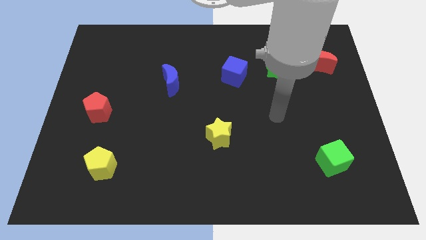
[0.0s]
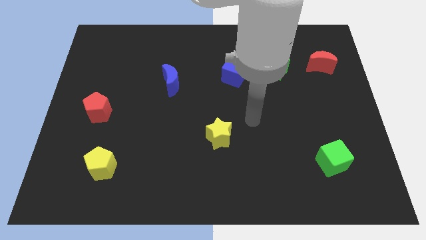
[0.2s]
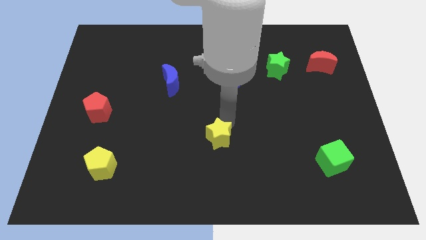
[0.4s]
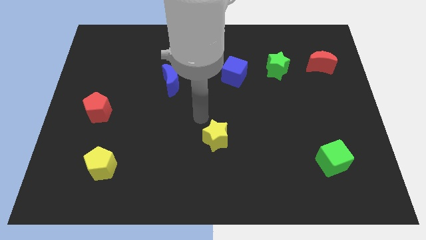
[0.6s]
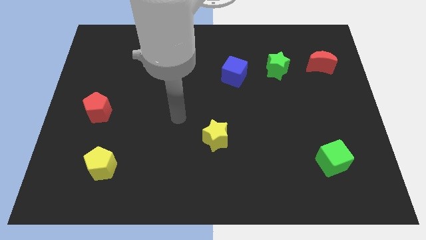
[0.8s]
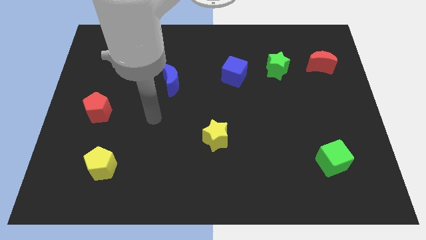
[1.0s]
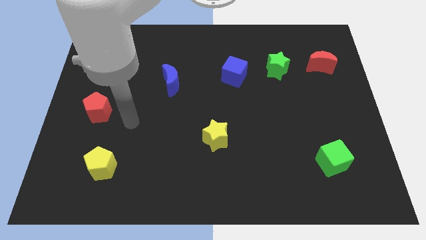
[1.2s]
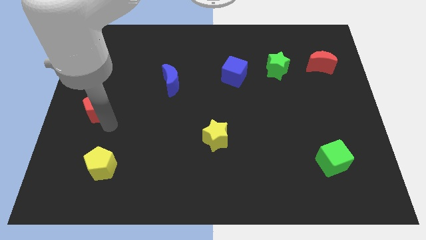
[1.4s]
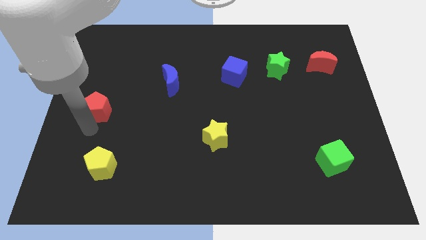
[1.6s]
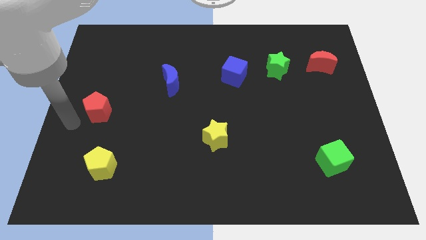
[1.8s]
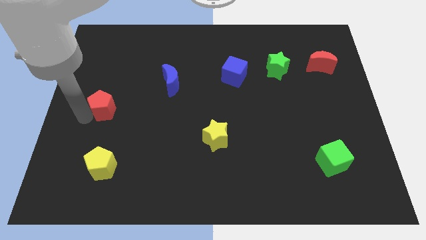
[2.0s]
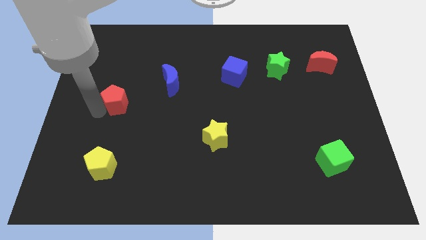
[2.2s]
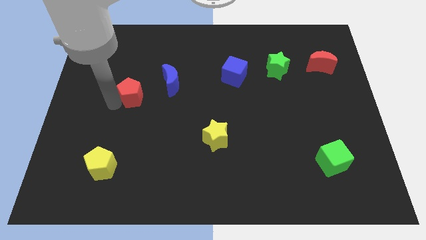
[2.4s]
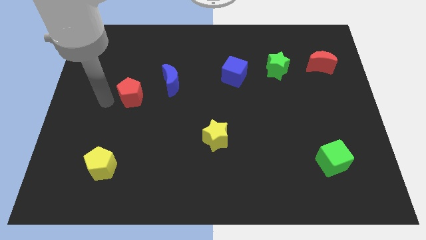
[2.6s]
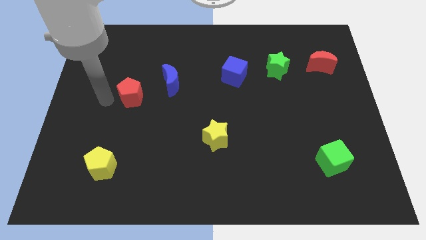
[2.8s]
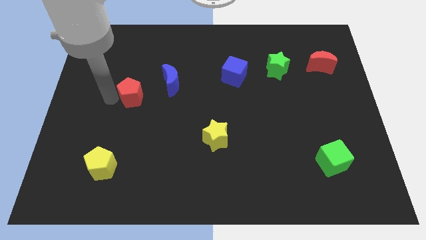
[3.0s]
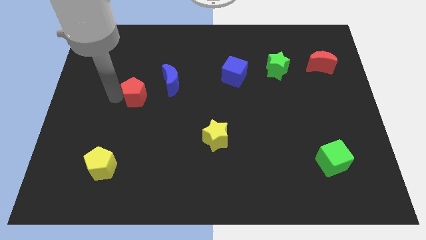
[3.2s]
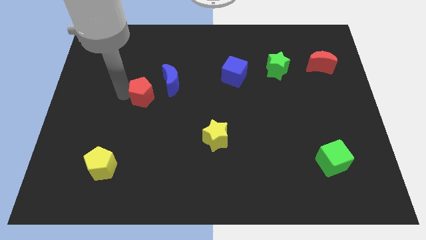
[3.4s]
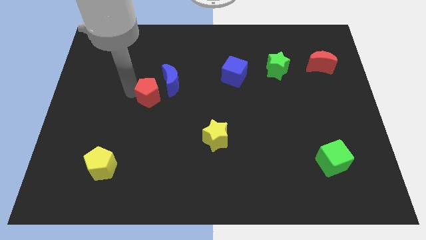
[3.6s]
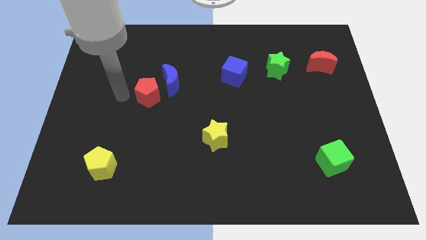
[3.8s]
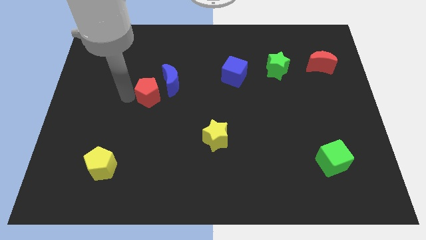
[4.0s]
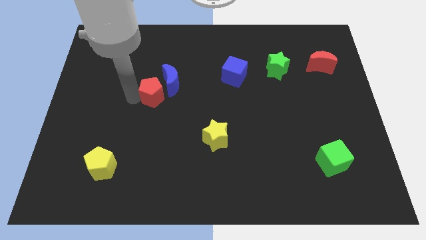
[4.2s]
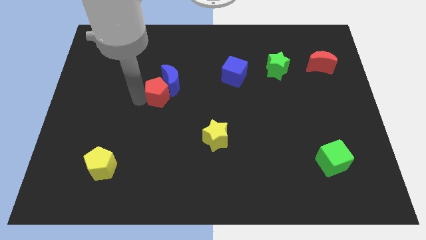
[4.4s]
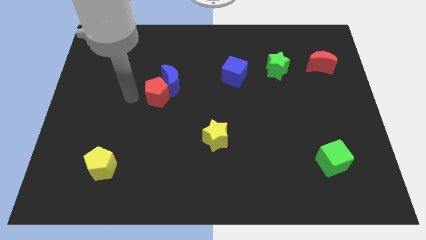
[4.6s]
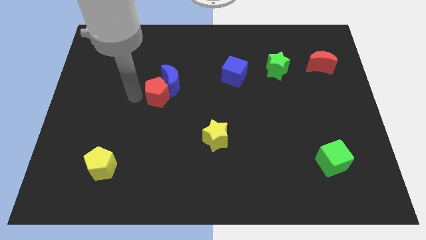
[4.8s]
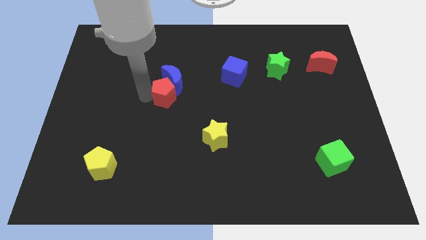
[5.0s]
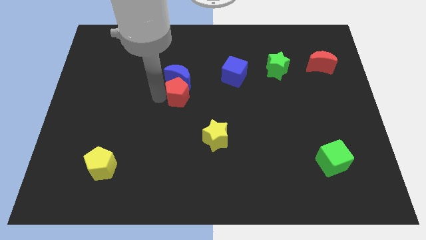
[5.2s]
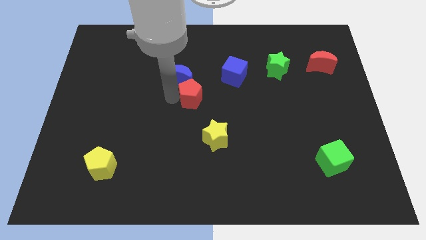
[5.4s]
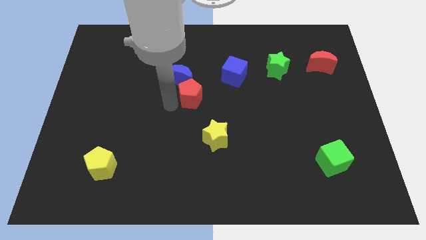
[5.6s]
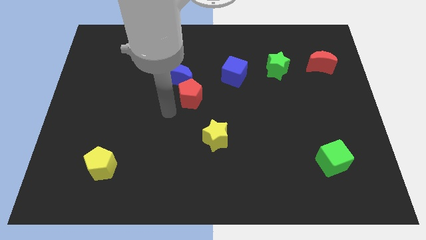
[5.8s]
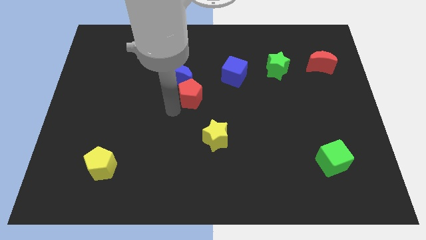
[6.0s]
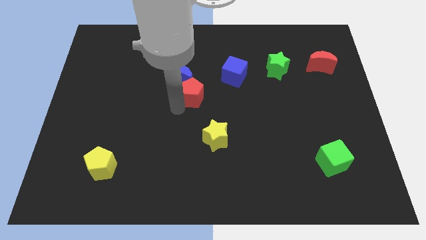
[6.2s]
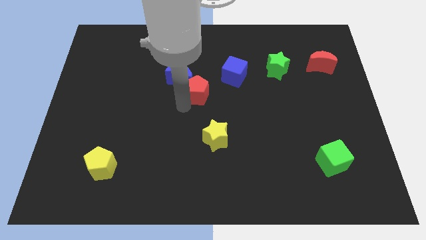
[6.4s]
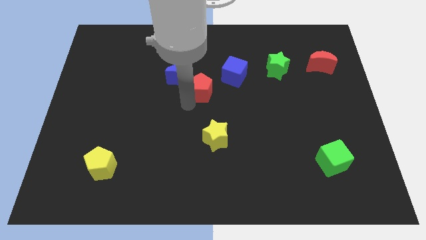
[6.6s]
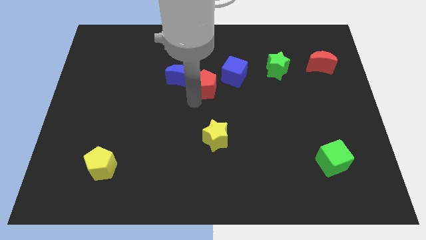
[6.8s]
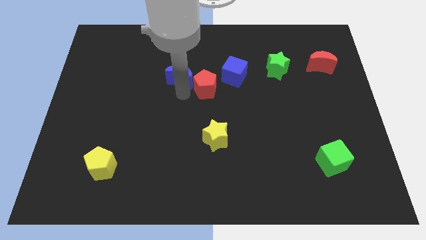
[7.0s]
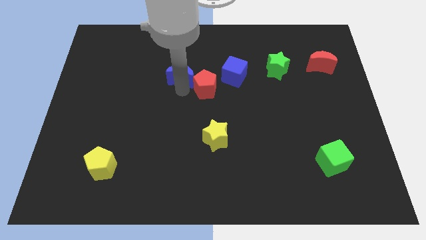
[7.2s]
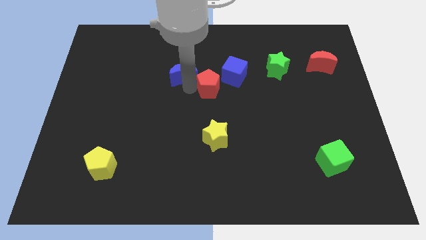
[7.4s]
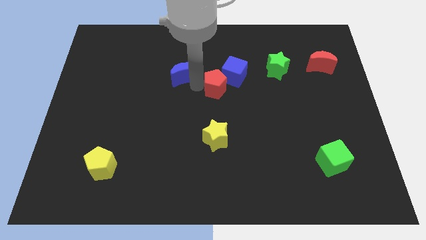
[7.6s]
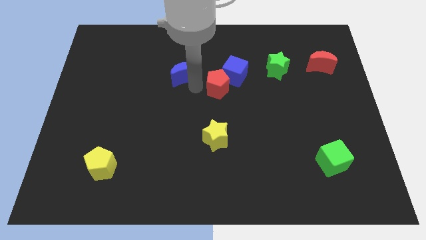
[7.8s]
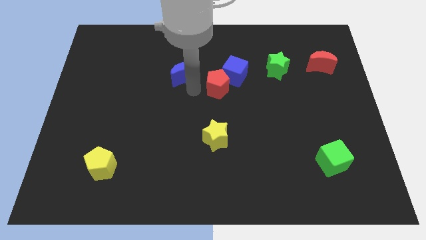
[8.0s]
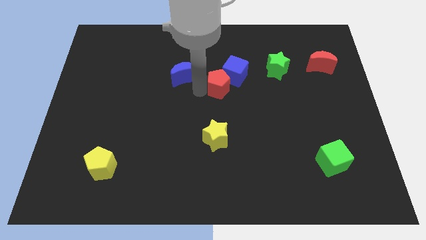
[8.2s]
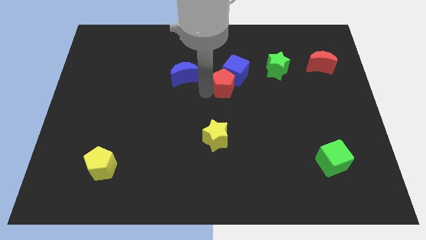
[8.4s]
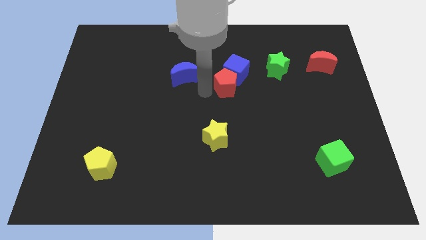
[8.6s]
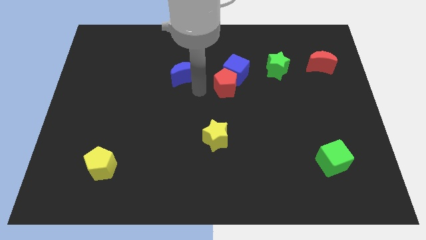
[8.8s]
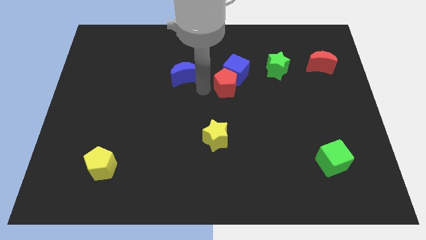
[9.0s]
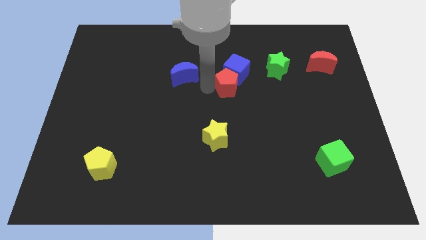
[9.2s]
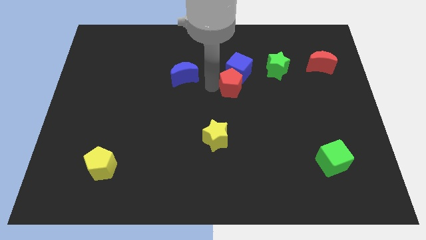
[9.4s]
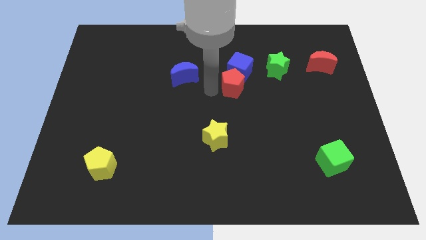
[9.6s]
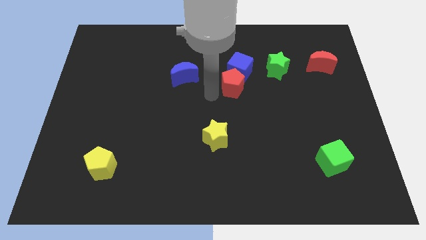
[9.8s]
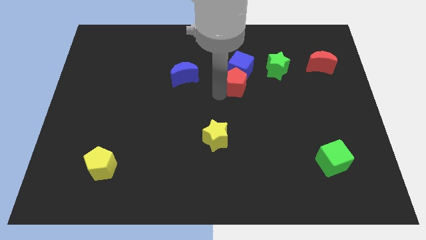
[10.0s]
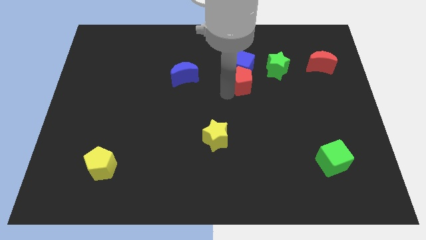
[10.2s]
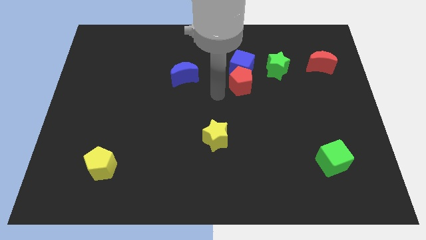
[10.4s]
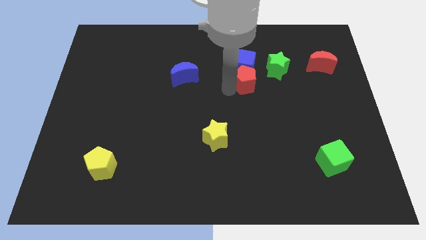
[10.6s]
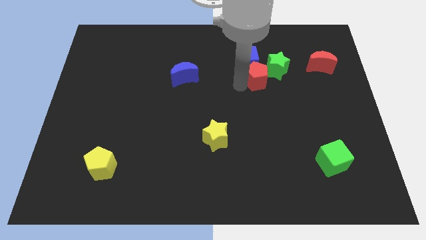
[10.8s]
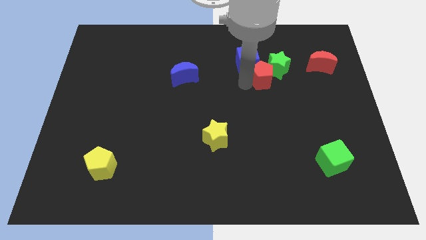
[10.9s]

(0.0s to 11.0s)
put the red pentagon towards the green star

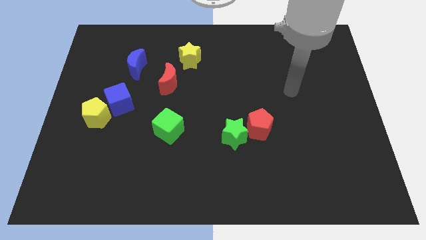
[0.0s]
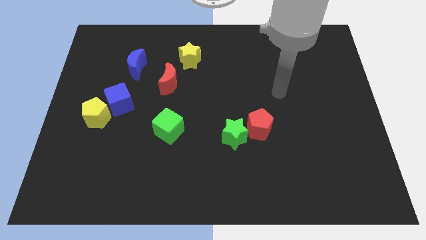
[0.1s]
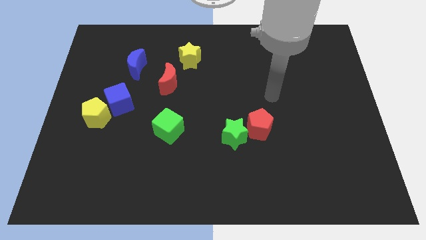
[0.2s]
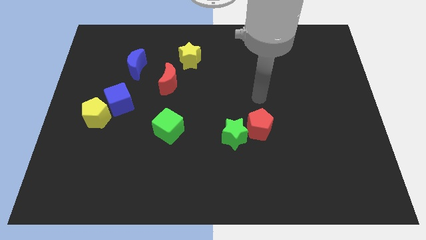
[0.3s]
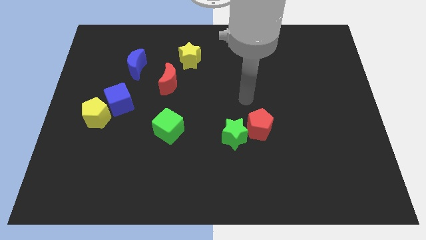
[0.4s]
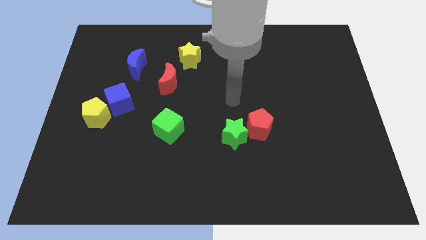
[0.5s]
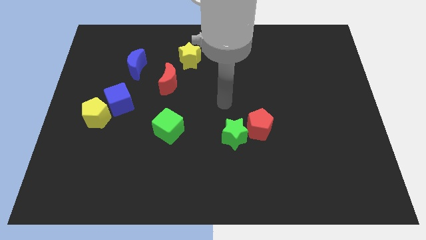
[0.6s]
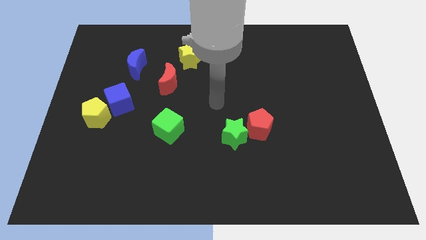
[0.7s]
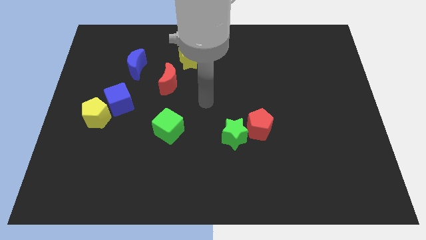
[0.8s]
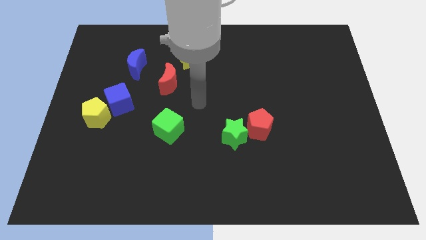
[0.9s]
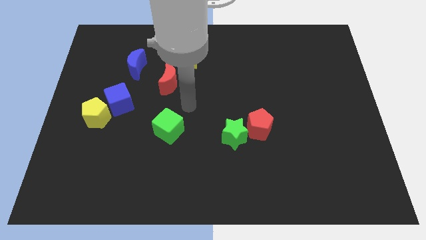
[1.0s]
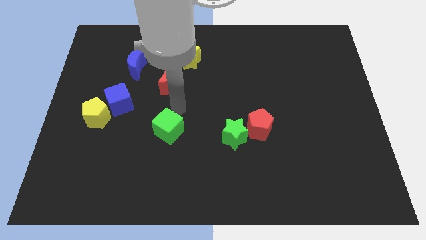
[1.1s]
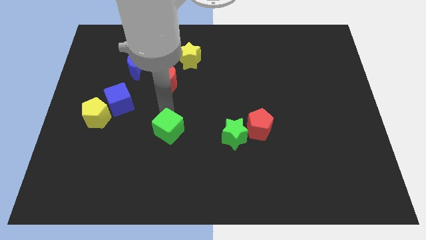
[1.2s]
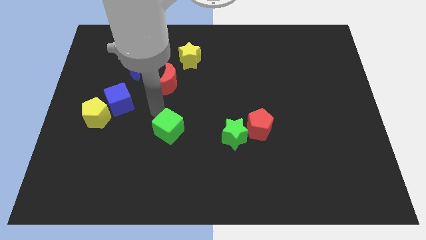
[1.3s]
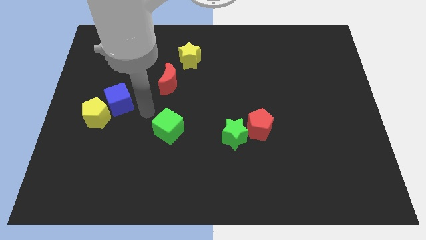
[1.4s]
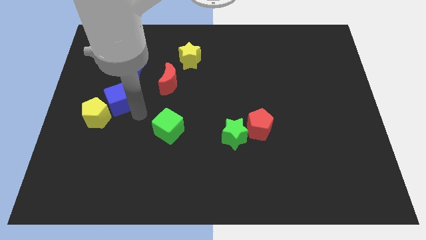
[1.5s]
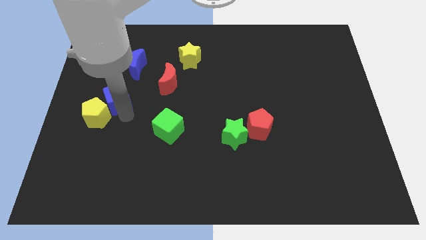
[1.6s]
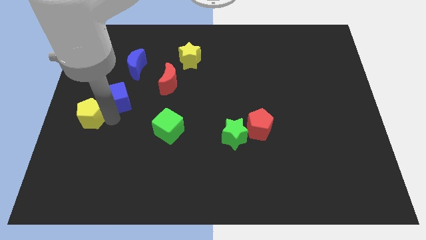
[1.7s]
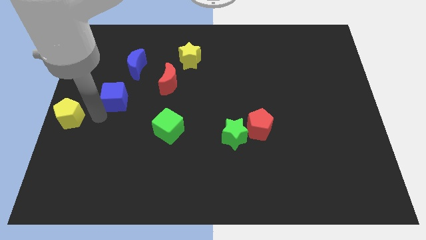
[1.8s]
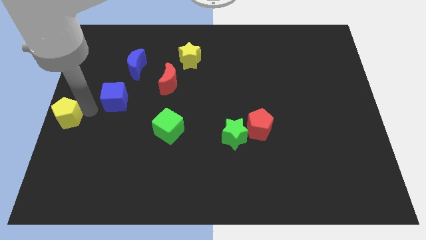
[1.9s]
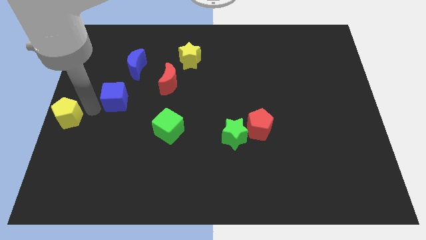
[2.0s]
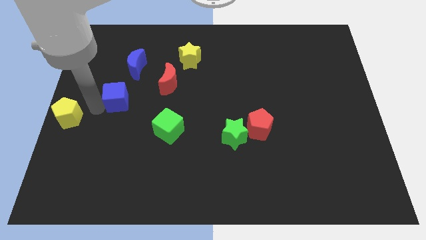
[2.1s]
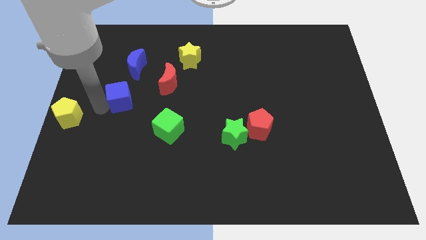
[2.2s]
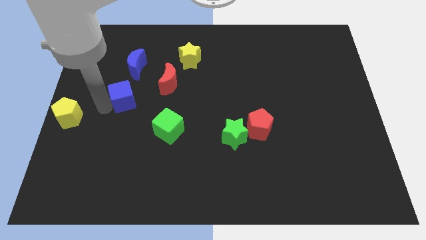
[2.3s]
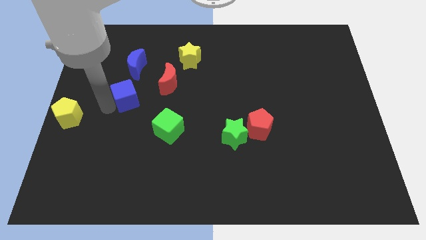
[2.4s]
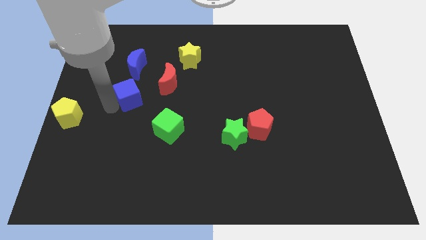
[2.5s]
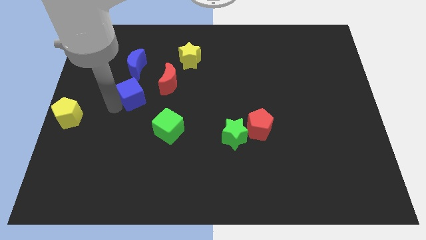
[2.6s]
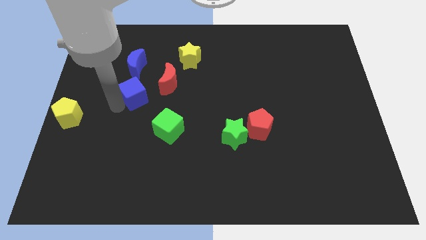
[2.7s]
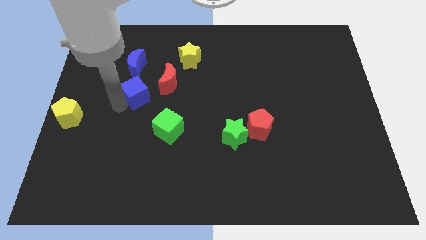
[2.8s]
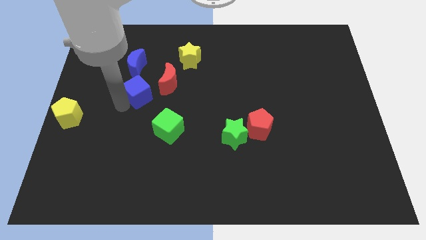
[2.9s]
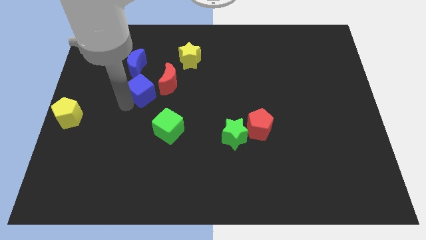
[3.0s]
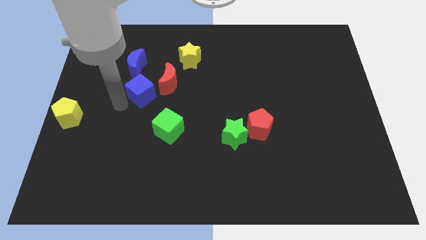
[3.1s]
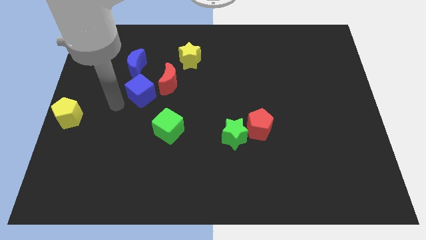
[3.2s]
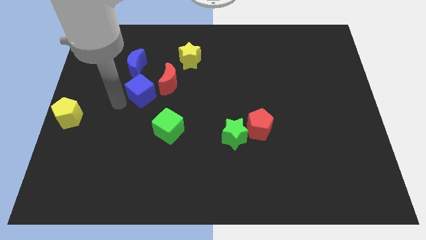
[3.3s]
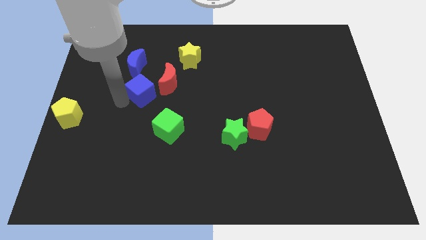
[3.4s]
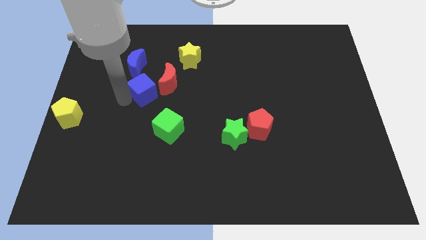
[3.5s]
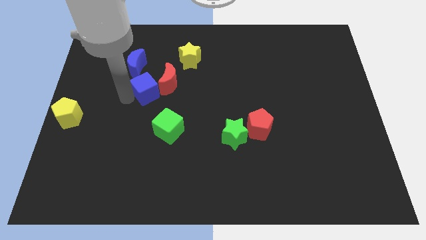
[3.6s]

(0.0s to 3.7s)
push the blue cube to the red moon
